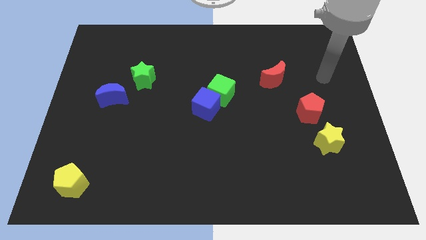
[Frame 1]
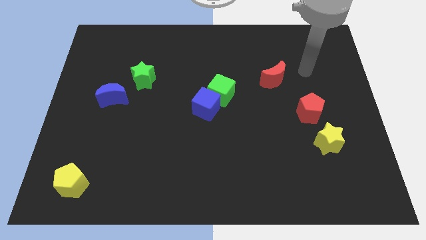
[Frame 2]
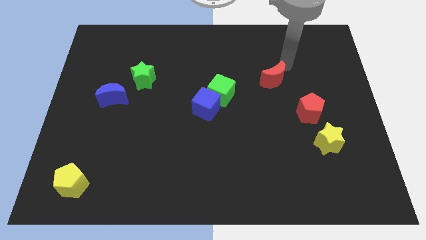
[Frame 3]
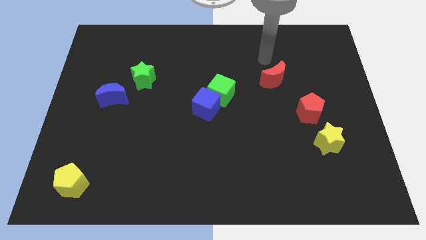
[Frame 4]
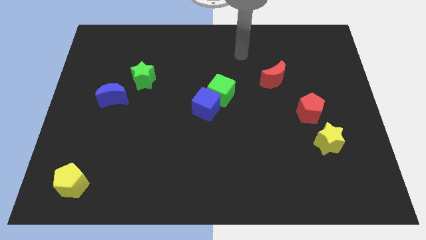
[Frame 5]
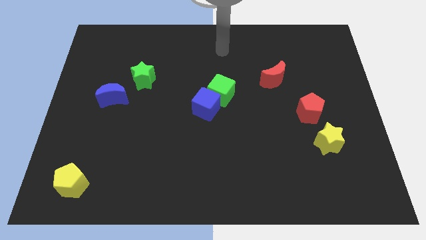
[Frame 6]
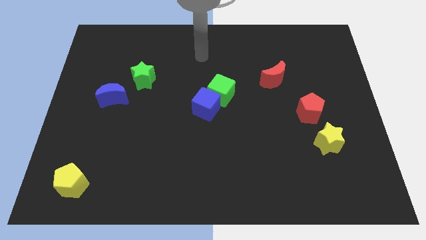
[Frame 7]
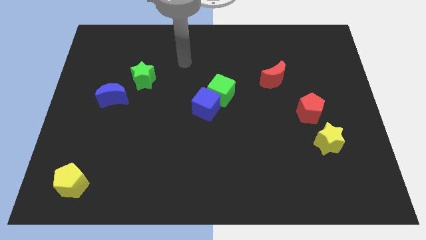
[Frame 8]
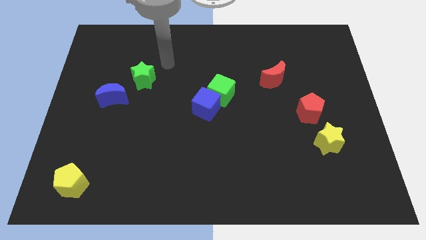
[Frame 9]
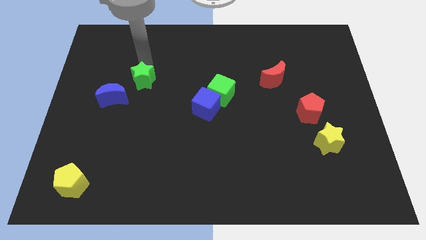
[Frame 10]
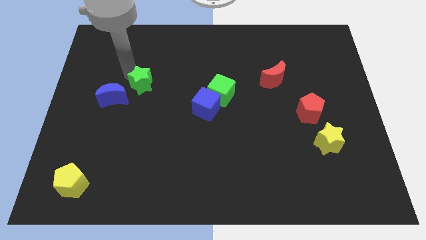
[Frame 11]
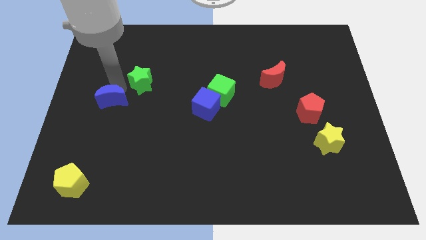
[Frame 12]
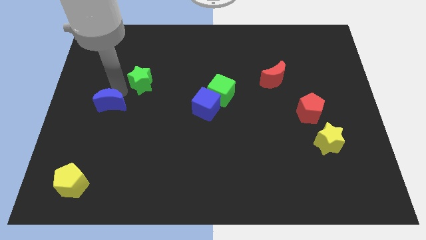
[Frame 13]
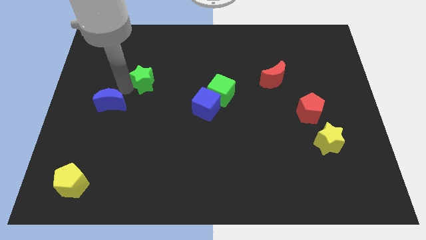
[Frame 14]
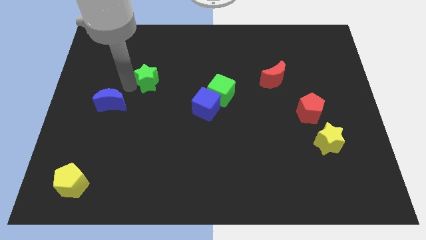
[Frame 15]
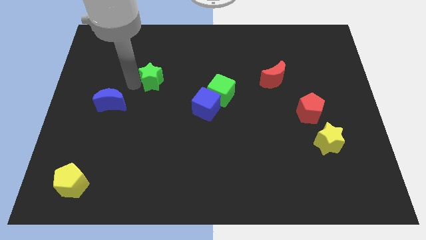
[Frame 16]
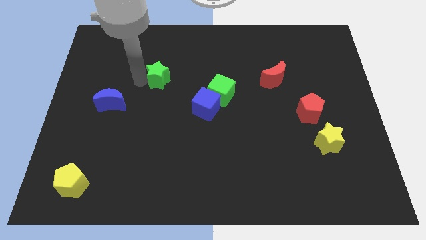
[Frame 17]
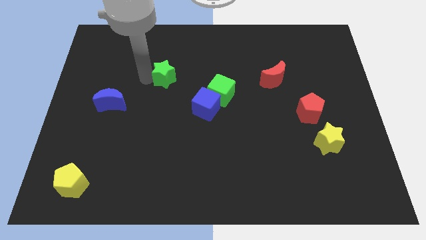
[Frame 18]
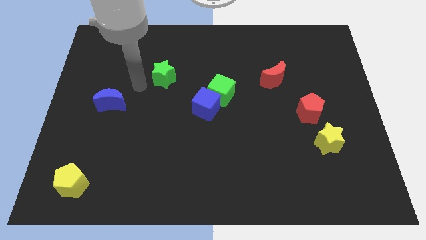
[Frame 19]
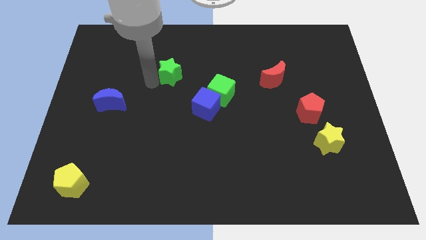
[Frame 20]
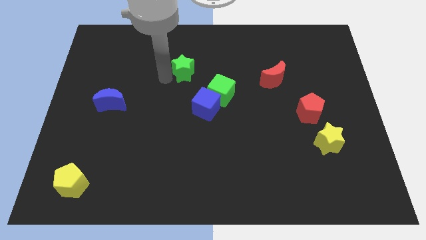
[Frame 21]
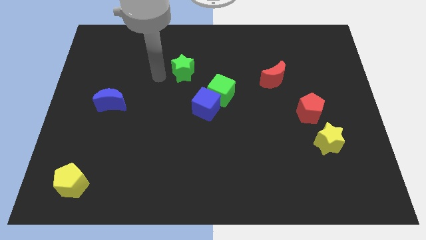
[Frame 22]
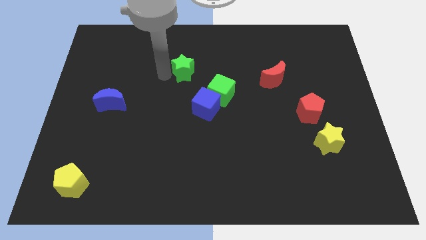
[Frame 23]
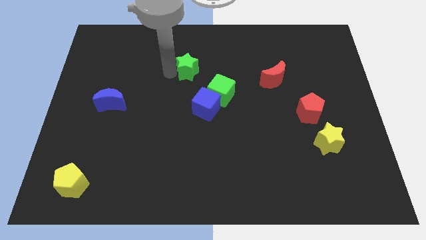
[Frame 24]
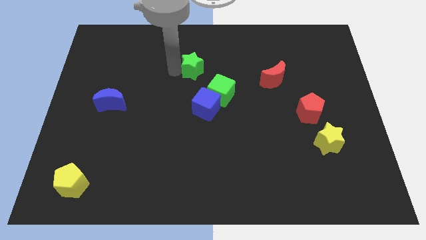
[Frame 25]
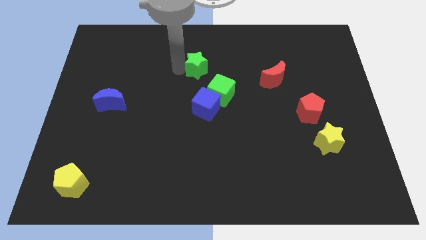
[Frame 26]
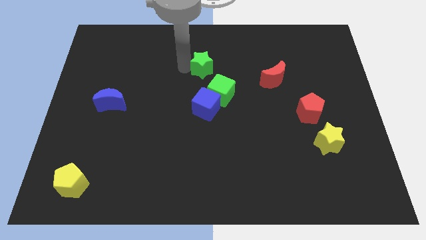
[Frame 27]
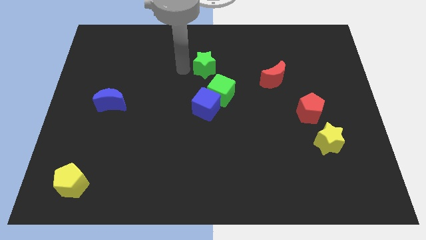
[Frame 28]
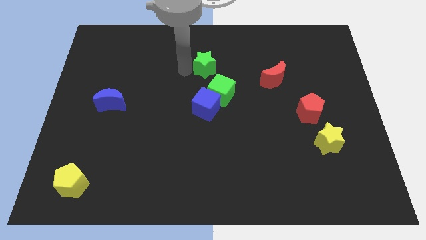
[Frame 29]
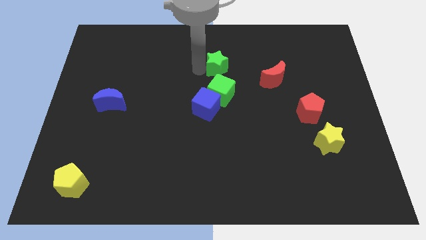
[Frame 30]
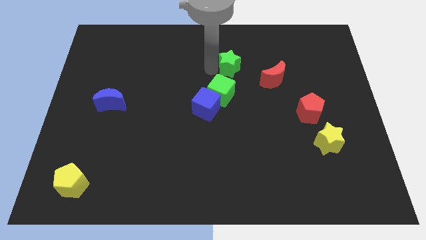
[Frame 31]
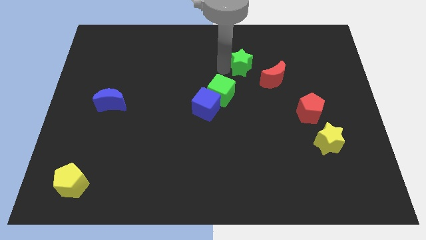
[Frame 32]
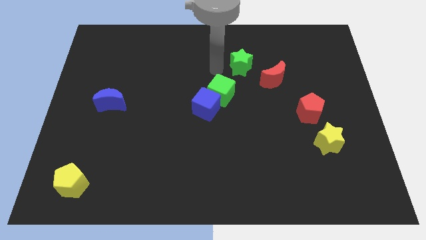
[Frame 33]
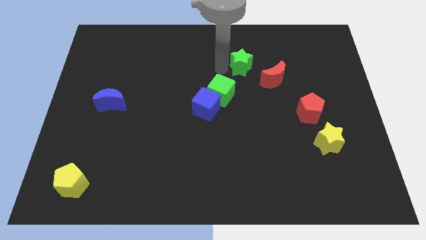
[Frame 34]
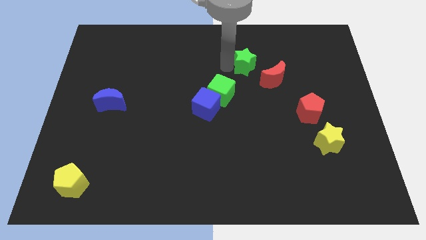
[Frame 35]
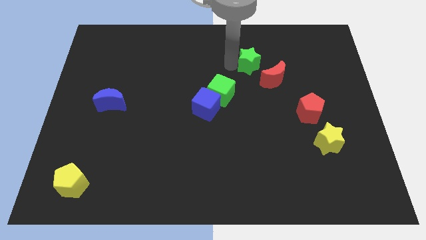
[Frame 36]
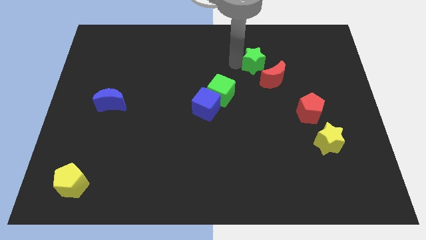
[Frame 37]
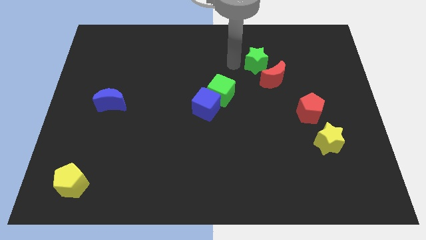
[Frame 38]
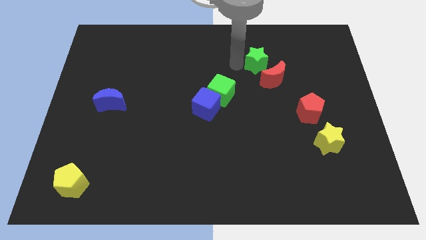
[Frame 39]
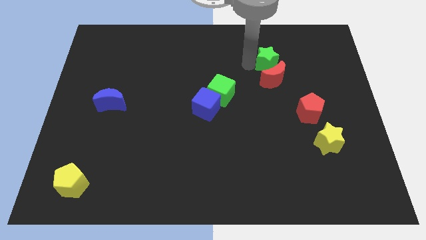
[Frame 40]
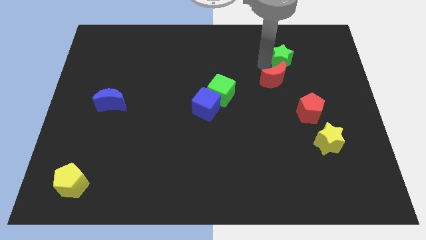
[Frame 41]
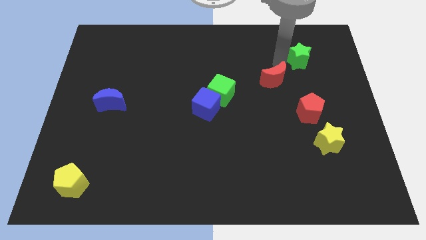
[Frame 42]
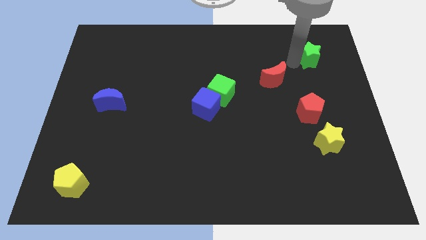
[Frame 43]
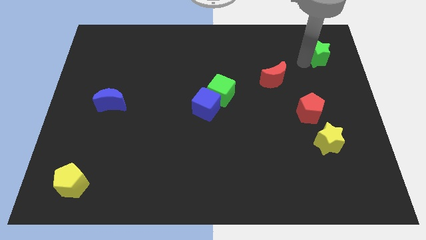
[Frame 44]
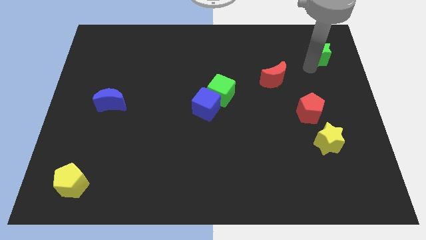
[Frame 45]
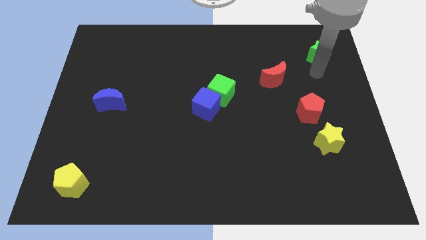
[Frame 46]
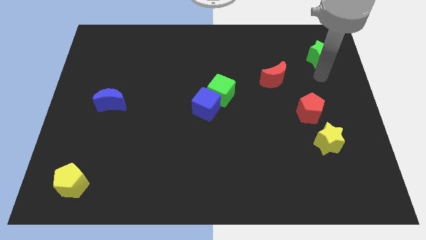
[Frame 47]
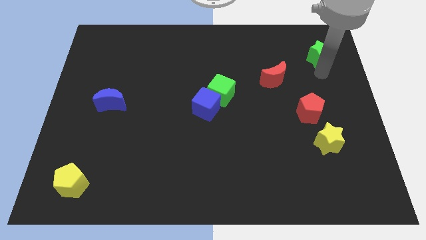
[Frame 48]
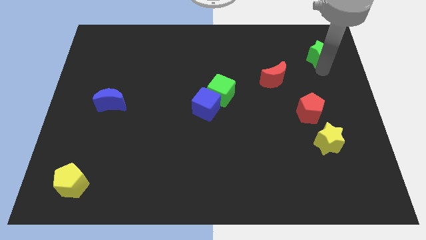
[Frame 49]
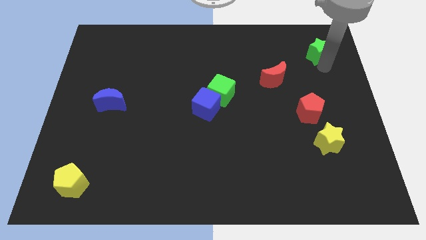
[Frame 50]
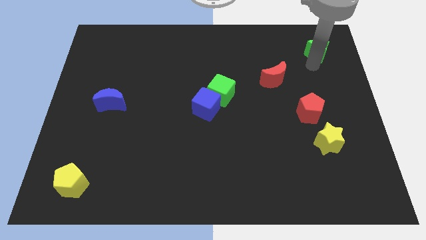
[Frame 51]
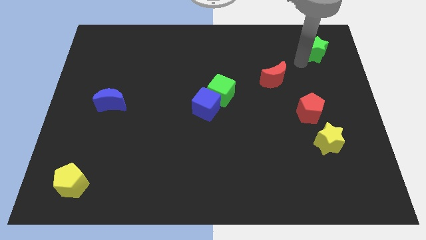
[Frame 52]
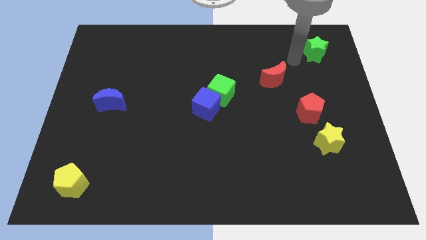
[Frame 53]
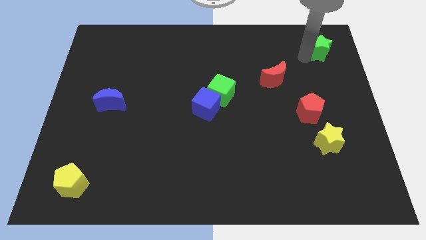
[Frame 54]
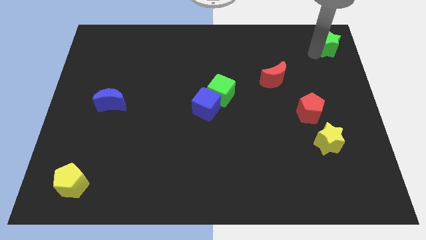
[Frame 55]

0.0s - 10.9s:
push the green star to the top right corner
